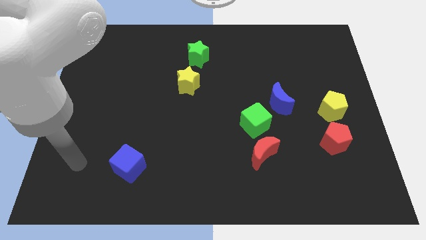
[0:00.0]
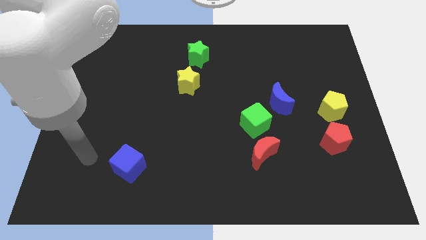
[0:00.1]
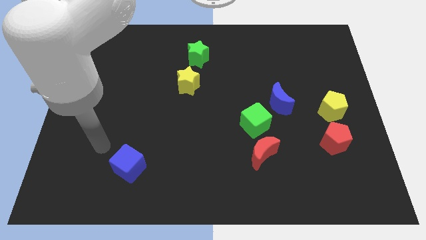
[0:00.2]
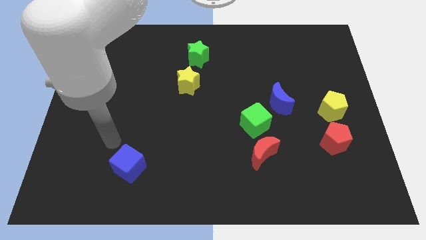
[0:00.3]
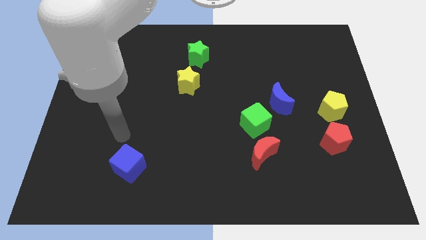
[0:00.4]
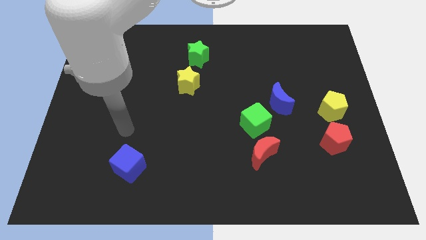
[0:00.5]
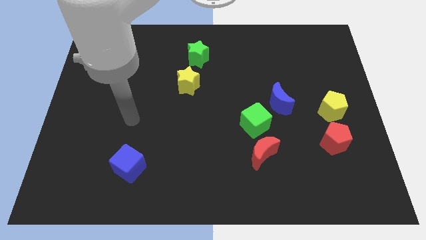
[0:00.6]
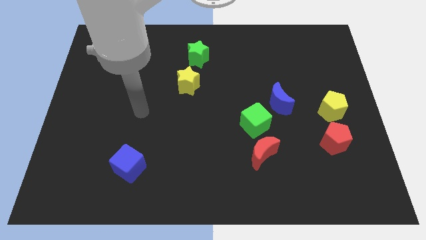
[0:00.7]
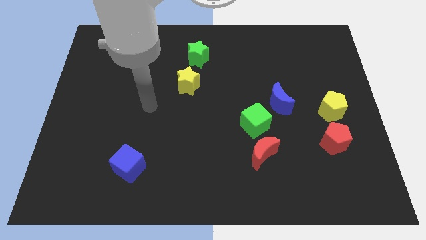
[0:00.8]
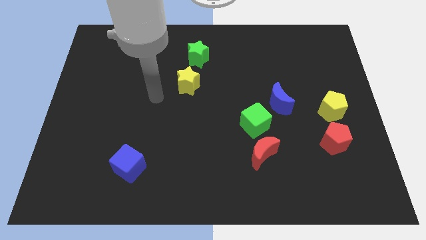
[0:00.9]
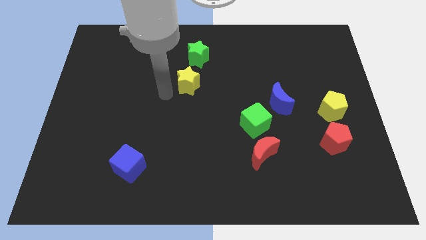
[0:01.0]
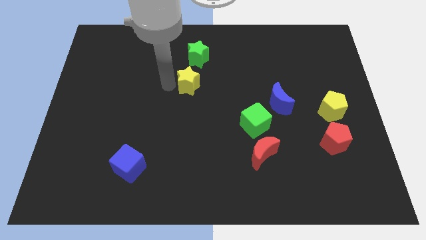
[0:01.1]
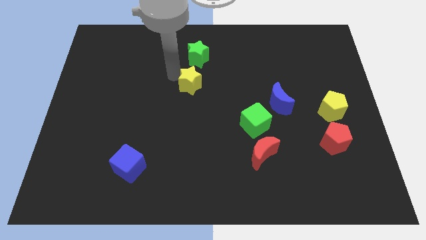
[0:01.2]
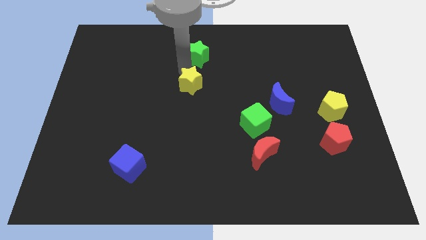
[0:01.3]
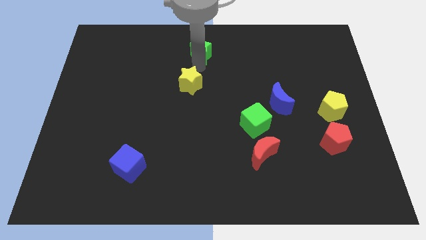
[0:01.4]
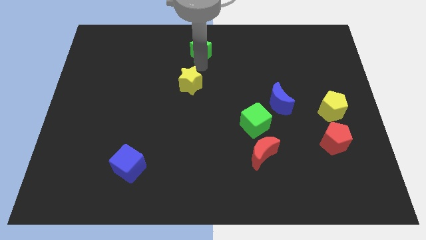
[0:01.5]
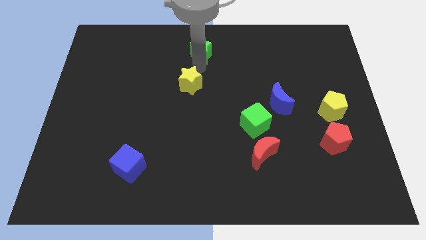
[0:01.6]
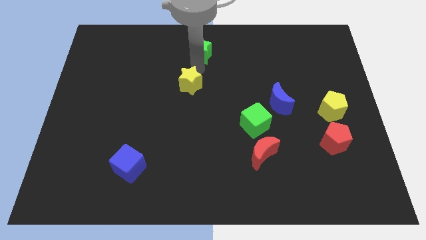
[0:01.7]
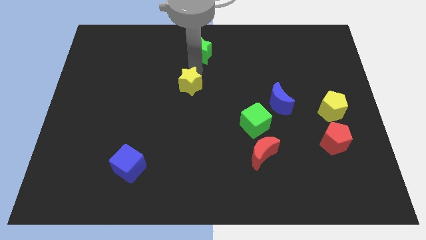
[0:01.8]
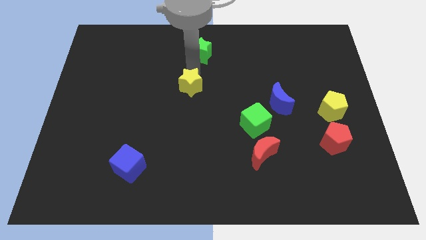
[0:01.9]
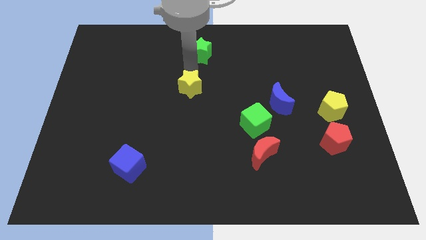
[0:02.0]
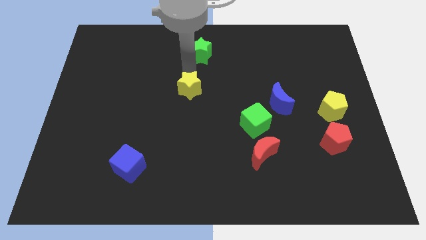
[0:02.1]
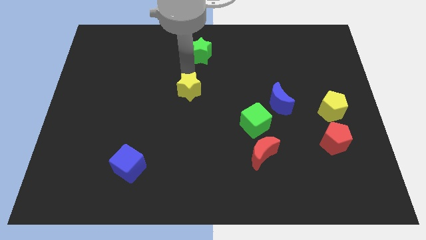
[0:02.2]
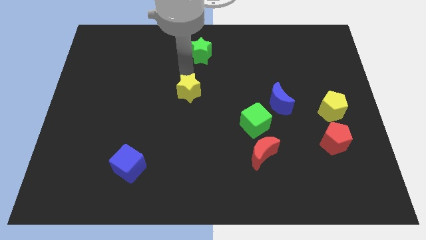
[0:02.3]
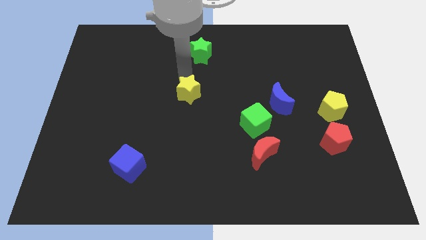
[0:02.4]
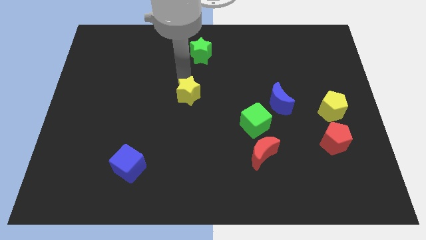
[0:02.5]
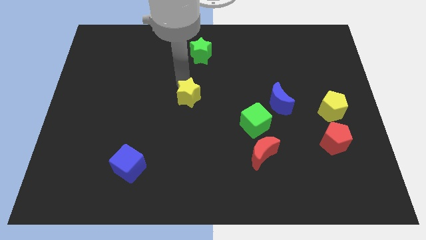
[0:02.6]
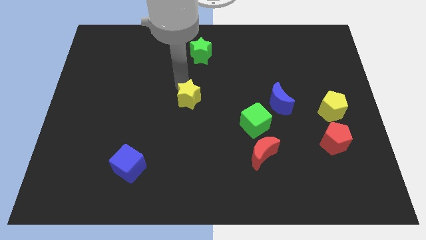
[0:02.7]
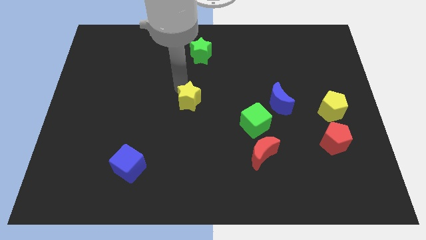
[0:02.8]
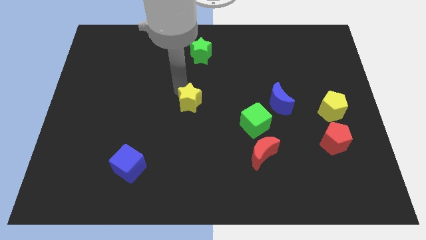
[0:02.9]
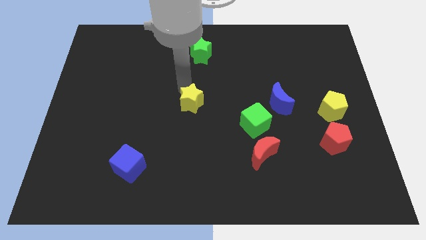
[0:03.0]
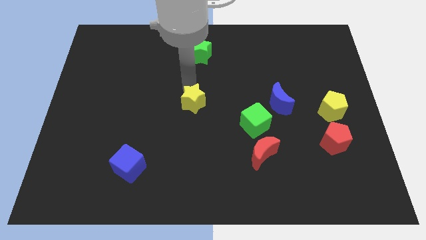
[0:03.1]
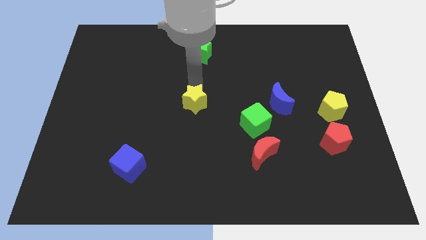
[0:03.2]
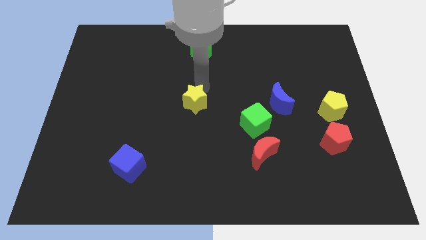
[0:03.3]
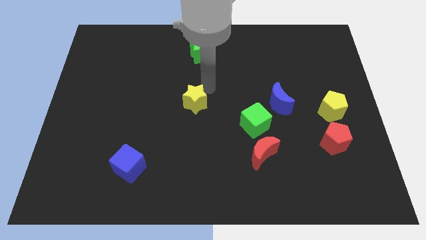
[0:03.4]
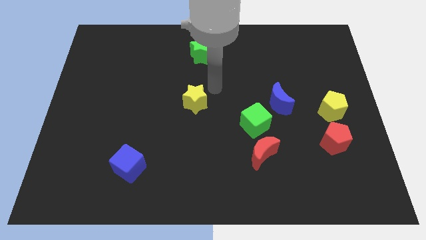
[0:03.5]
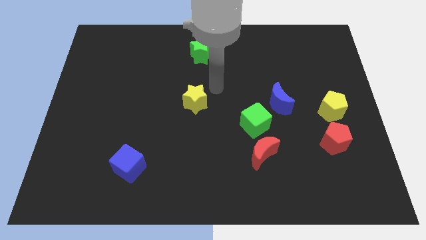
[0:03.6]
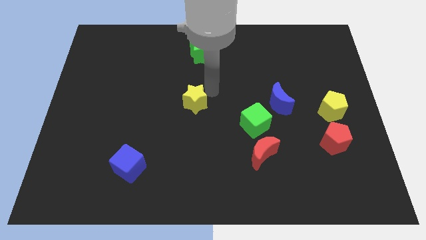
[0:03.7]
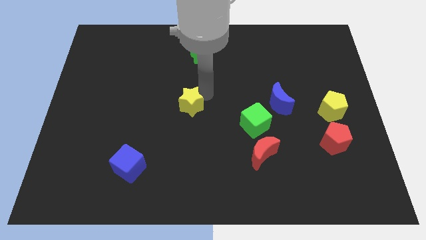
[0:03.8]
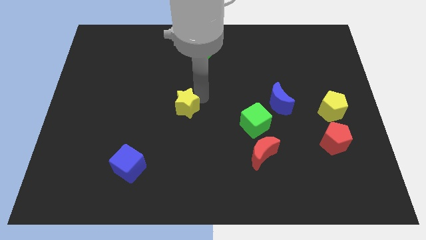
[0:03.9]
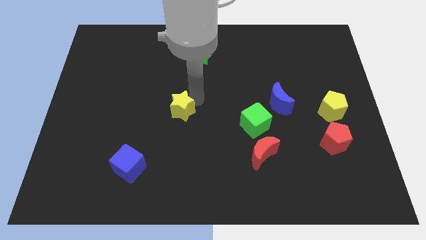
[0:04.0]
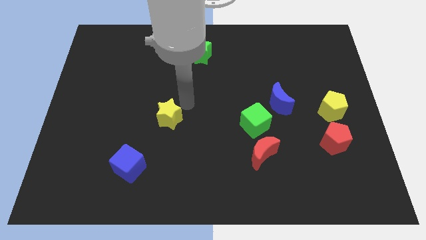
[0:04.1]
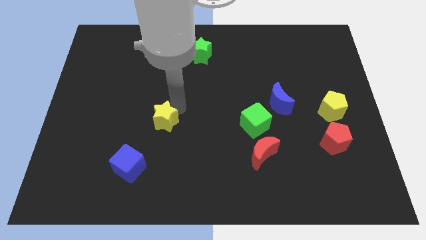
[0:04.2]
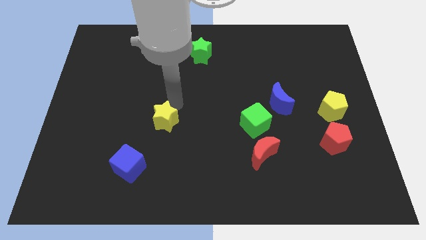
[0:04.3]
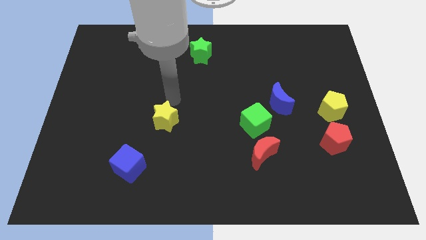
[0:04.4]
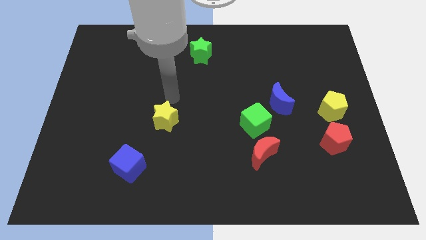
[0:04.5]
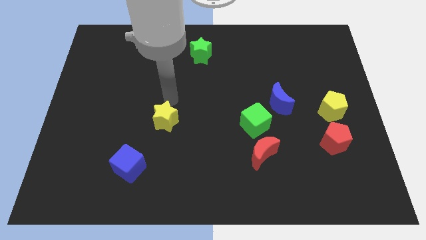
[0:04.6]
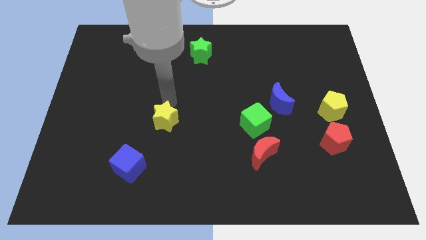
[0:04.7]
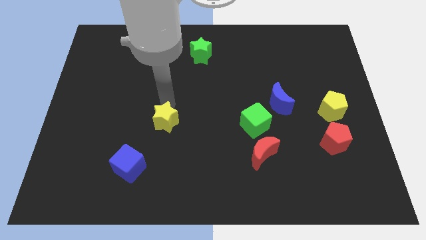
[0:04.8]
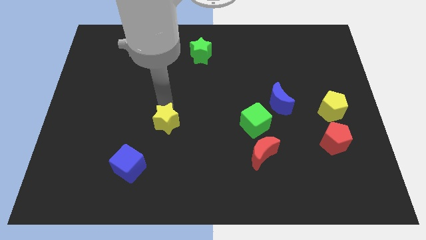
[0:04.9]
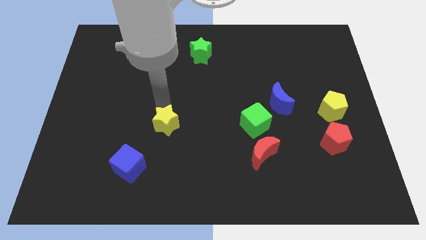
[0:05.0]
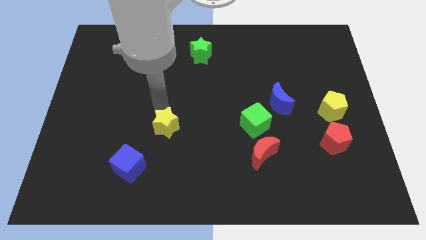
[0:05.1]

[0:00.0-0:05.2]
put the yellow star to the top right of the blue cube

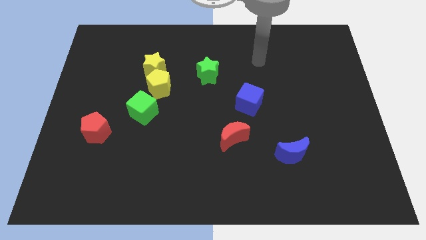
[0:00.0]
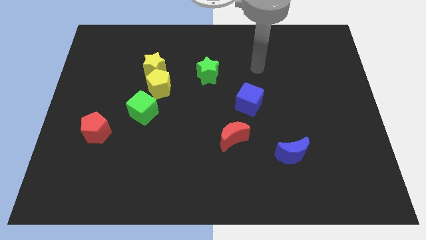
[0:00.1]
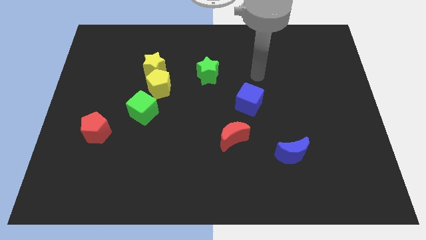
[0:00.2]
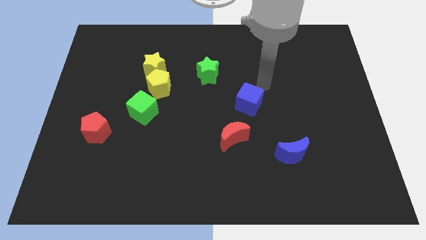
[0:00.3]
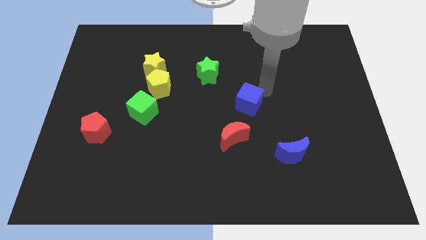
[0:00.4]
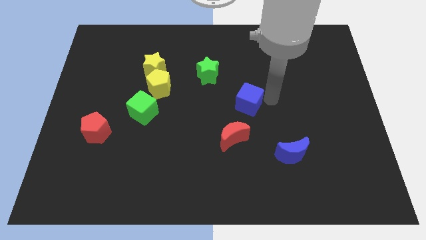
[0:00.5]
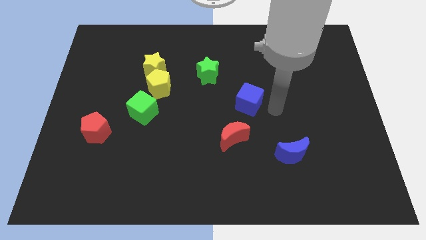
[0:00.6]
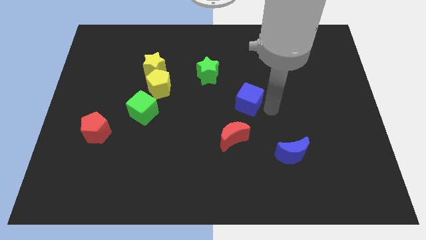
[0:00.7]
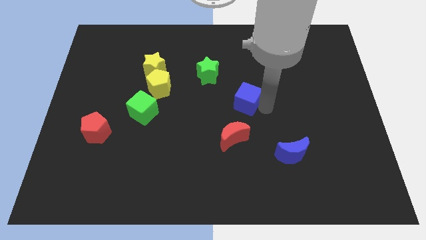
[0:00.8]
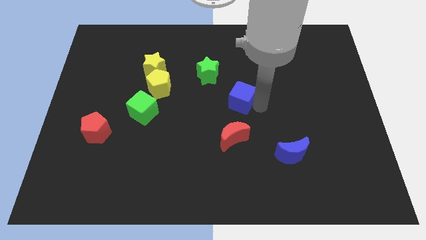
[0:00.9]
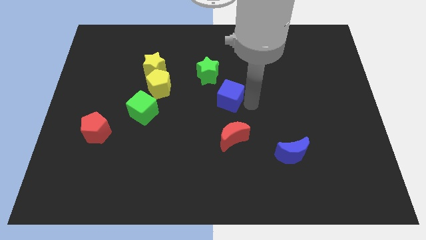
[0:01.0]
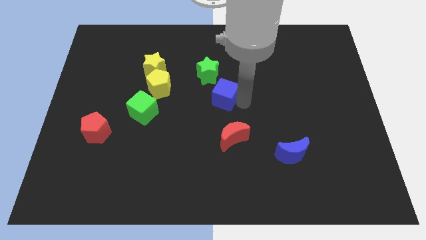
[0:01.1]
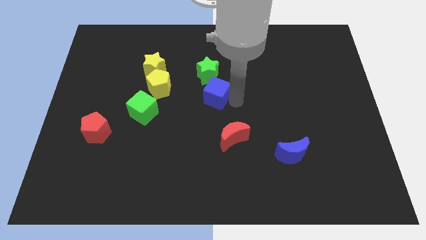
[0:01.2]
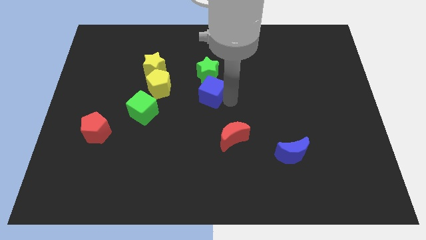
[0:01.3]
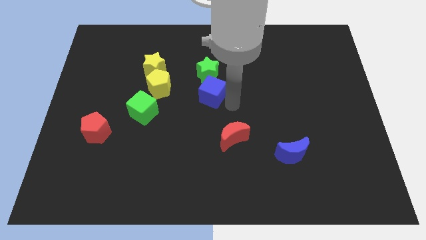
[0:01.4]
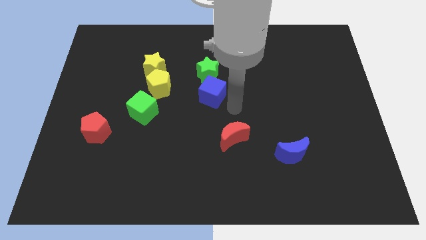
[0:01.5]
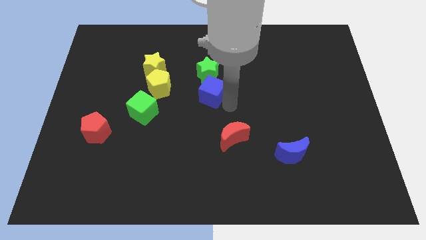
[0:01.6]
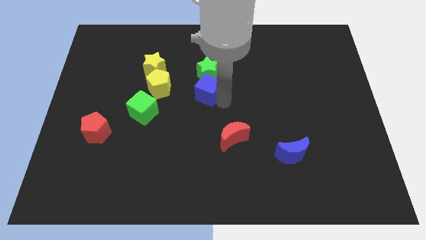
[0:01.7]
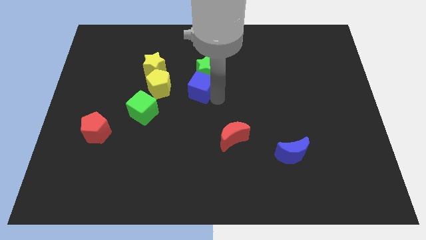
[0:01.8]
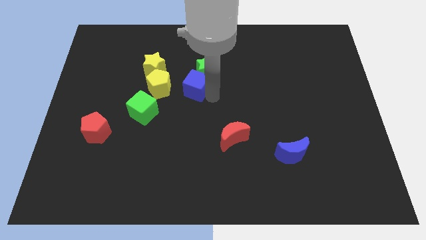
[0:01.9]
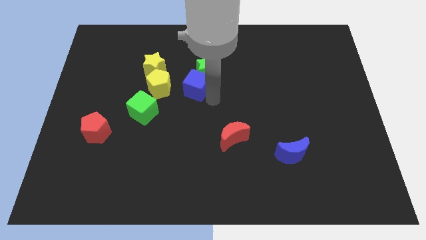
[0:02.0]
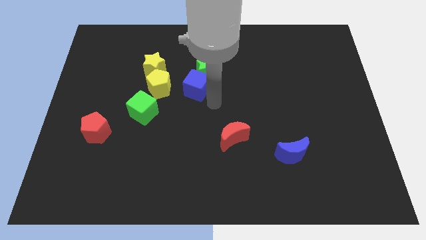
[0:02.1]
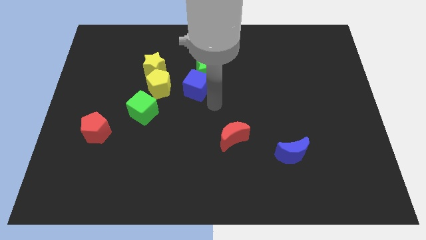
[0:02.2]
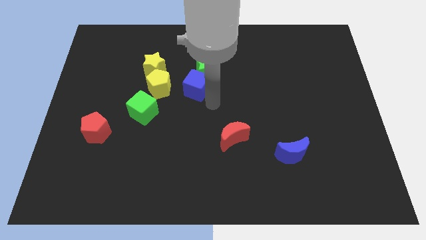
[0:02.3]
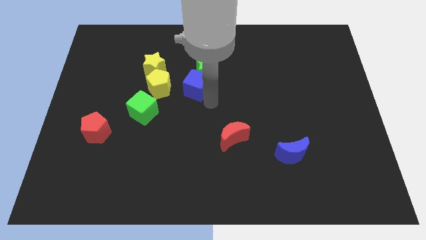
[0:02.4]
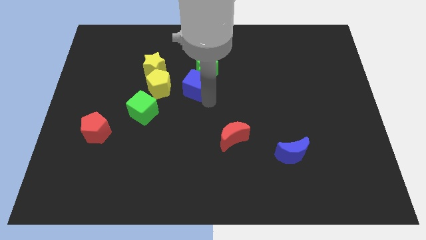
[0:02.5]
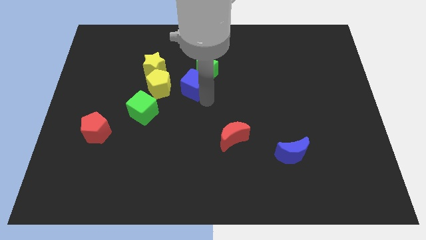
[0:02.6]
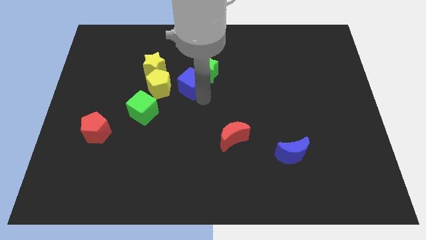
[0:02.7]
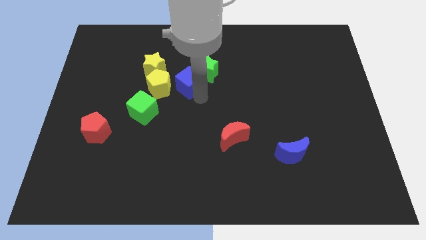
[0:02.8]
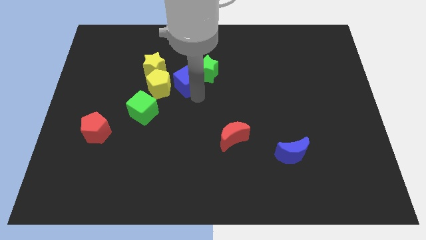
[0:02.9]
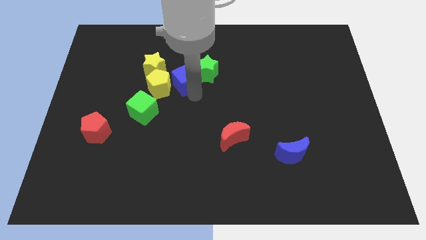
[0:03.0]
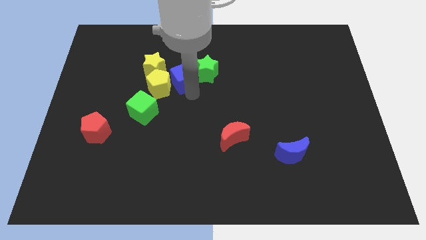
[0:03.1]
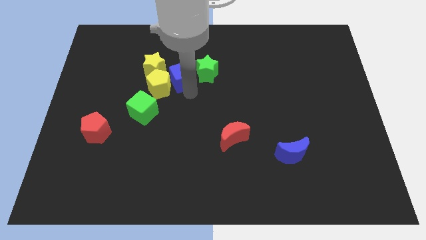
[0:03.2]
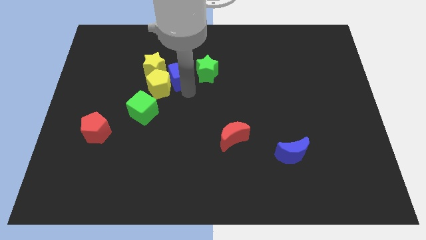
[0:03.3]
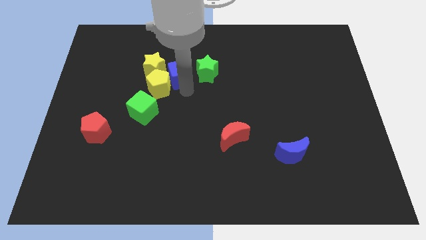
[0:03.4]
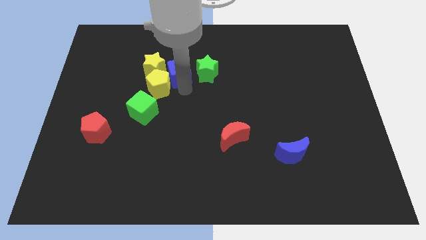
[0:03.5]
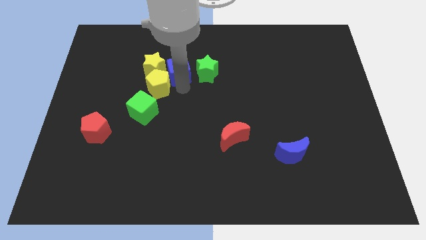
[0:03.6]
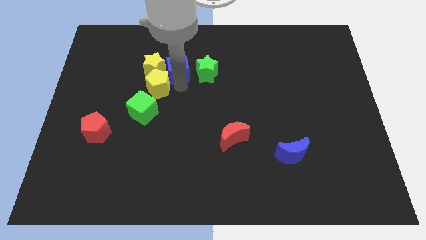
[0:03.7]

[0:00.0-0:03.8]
put the blue cube diagonally up and to the right of the yellow star
